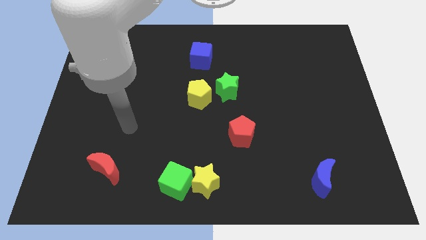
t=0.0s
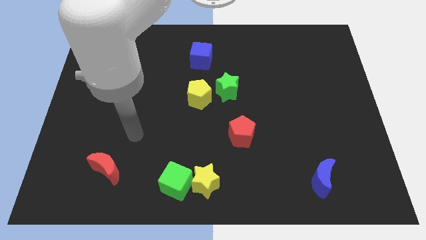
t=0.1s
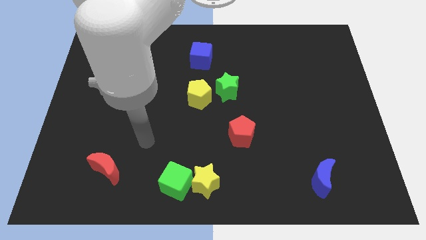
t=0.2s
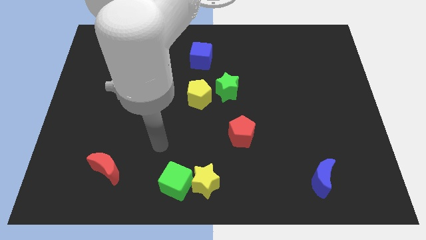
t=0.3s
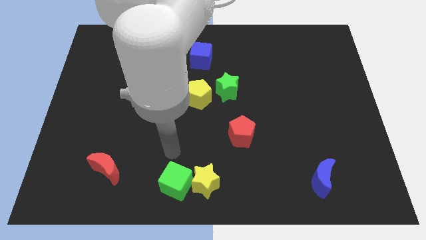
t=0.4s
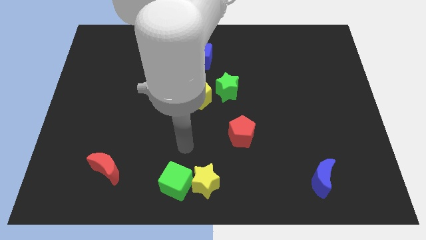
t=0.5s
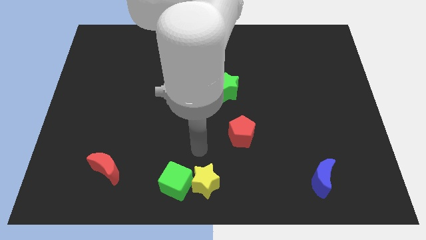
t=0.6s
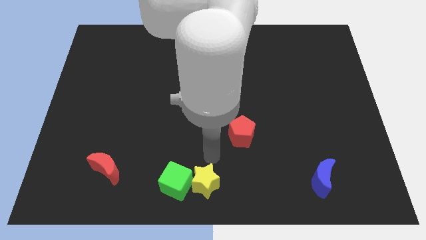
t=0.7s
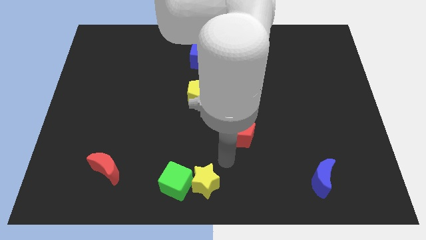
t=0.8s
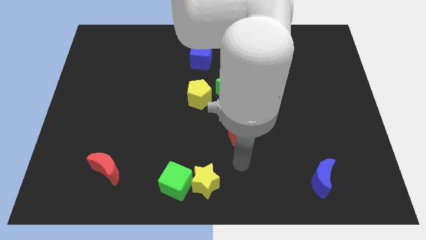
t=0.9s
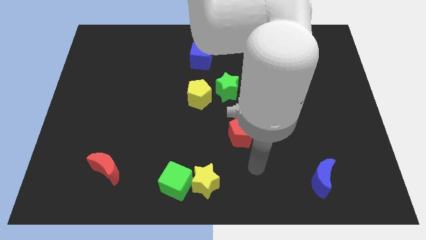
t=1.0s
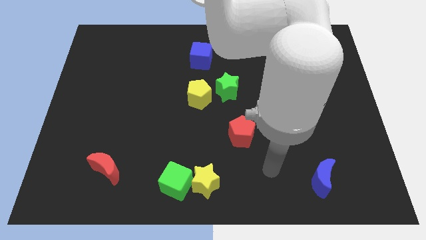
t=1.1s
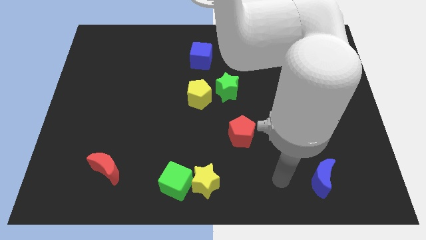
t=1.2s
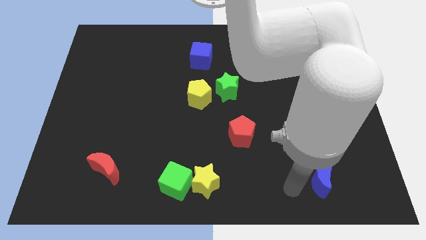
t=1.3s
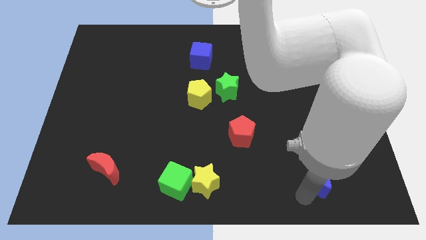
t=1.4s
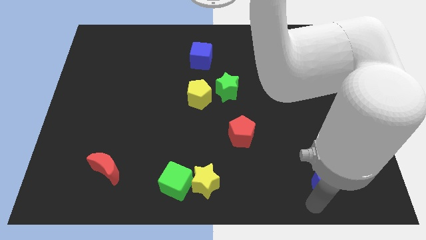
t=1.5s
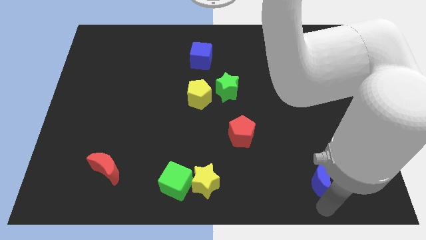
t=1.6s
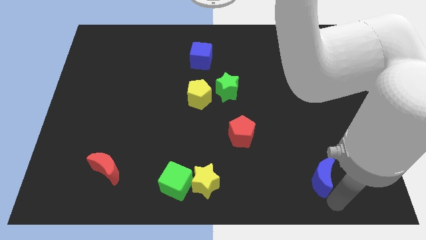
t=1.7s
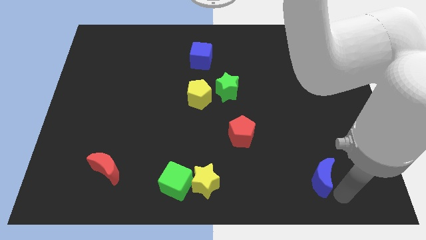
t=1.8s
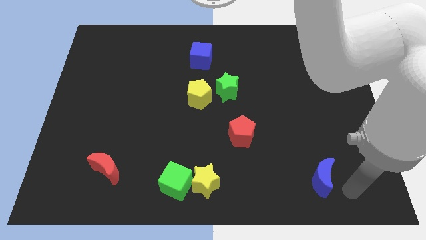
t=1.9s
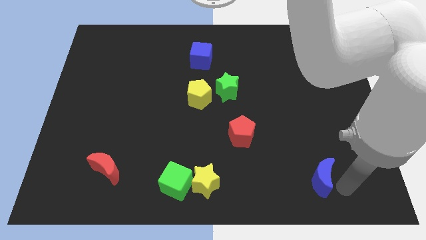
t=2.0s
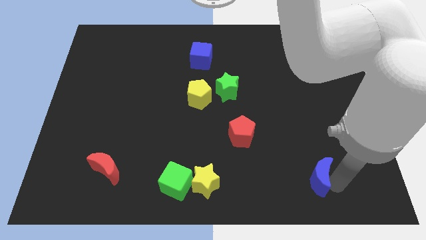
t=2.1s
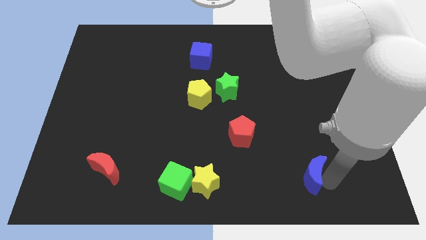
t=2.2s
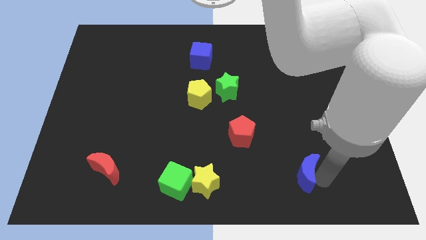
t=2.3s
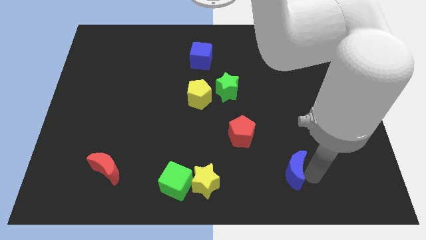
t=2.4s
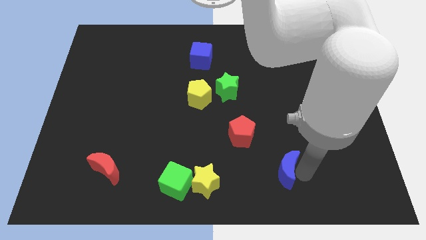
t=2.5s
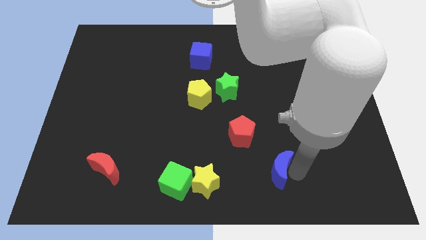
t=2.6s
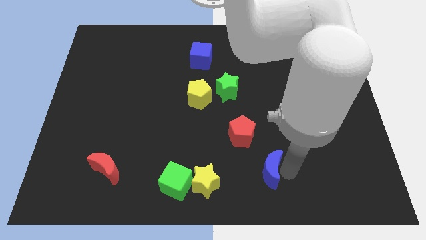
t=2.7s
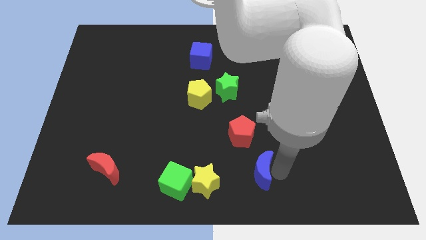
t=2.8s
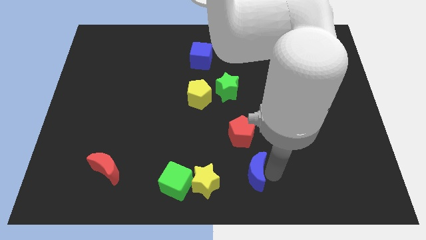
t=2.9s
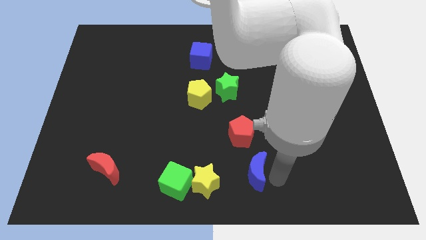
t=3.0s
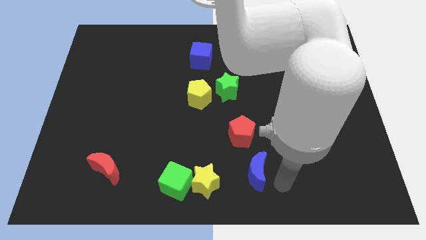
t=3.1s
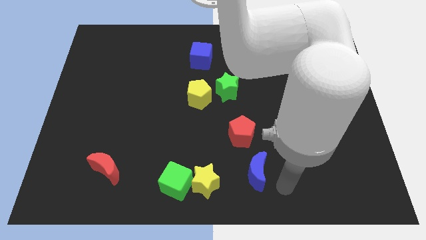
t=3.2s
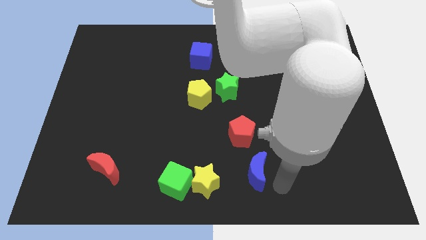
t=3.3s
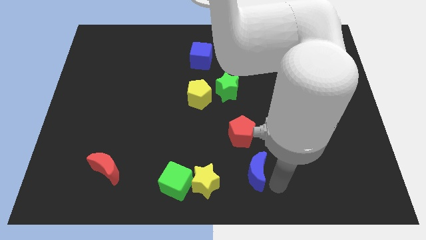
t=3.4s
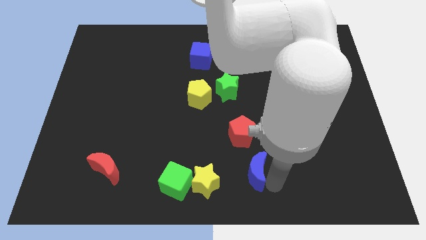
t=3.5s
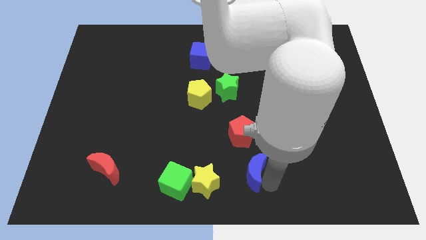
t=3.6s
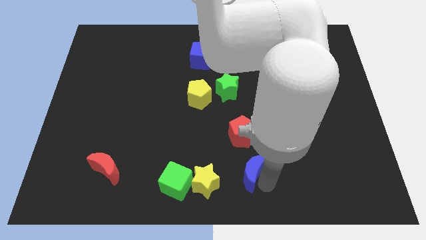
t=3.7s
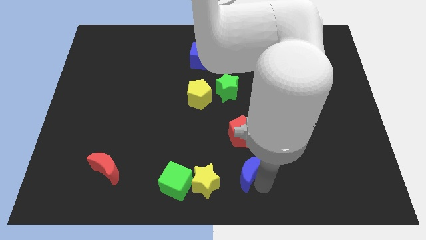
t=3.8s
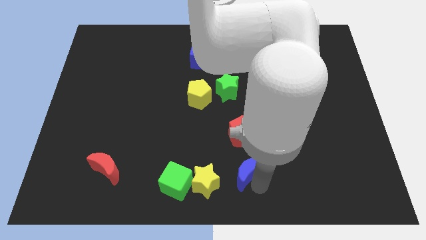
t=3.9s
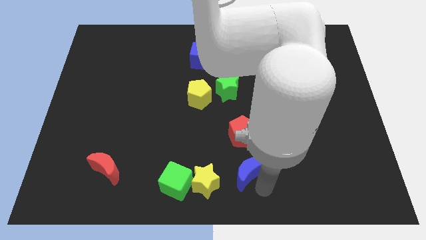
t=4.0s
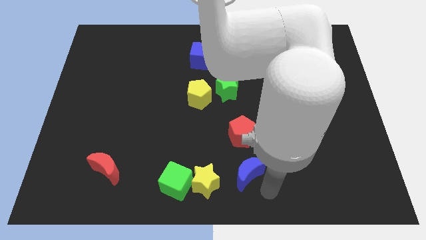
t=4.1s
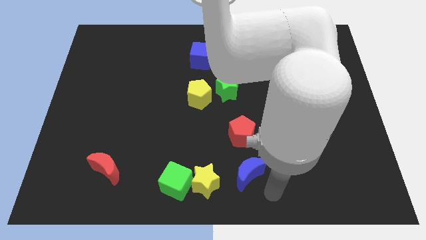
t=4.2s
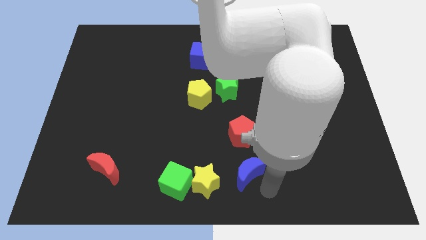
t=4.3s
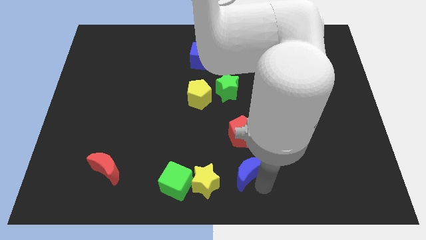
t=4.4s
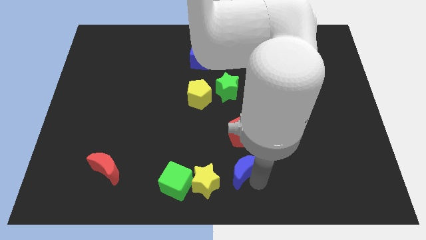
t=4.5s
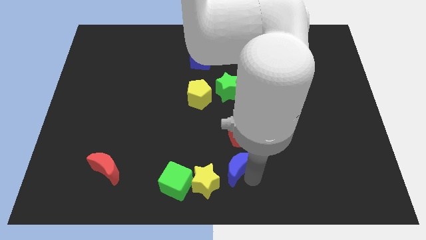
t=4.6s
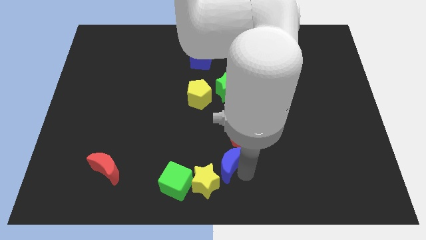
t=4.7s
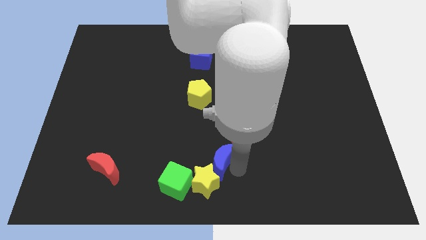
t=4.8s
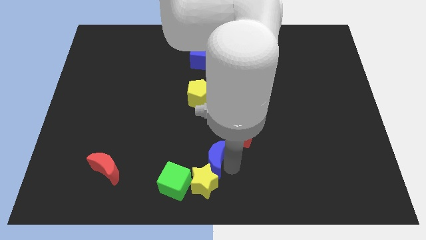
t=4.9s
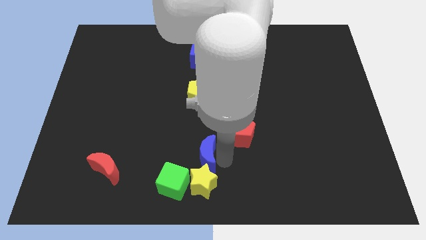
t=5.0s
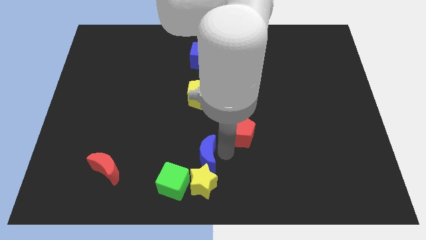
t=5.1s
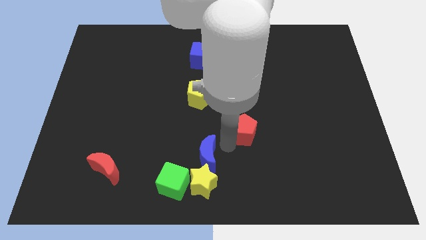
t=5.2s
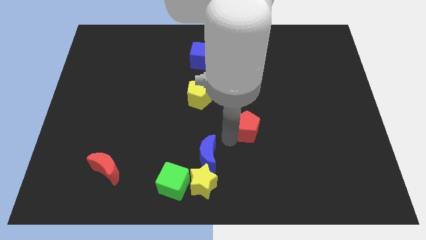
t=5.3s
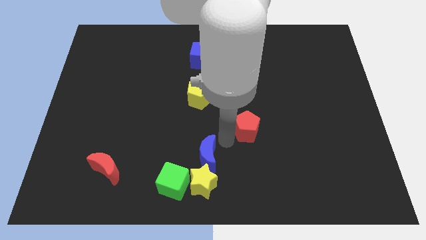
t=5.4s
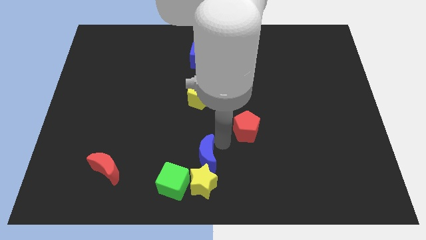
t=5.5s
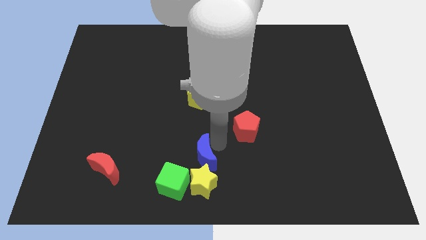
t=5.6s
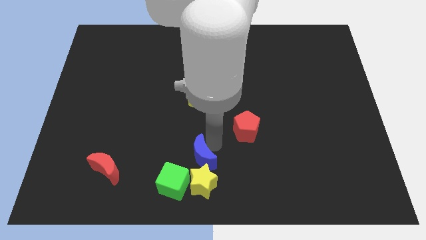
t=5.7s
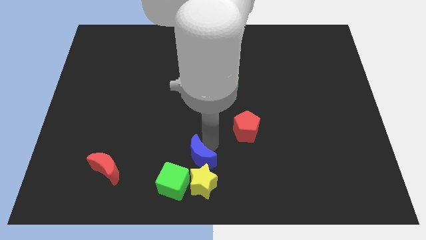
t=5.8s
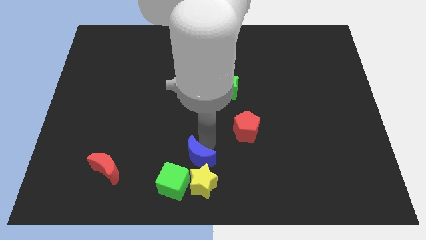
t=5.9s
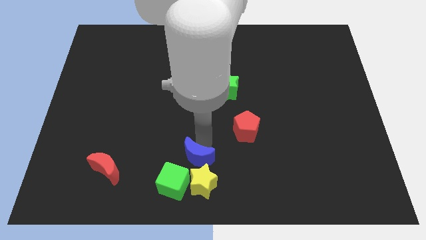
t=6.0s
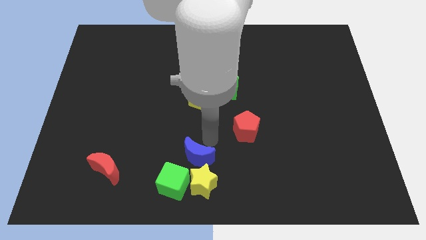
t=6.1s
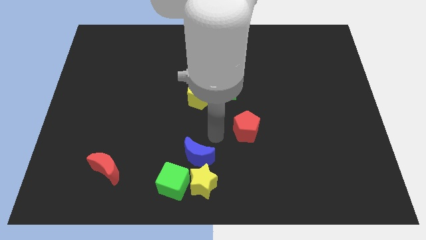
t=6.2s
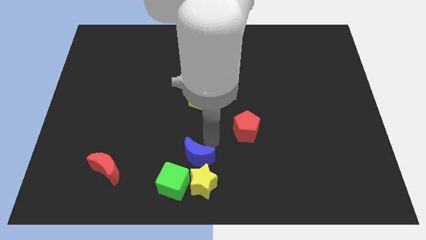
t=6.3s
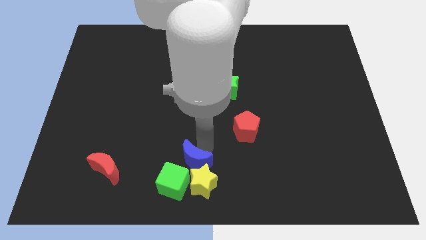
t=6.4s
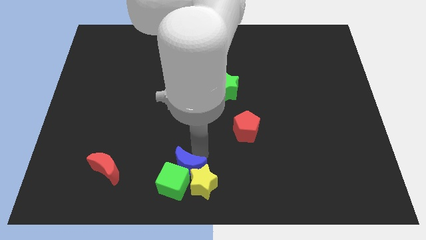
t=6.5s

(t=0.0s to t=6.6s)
move the blue moon towards the green cube
